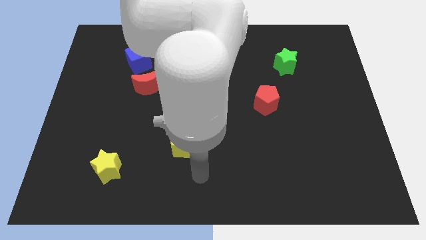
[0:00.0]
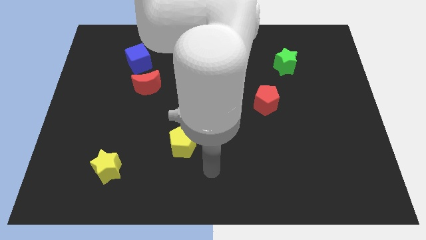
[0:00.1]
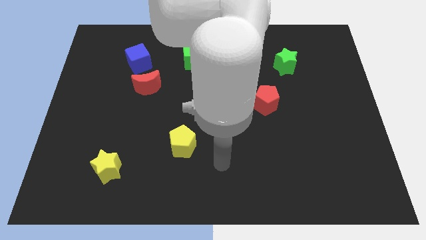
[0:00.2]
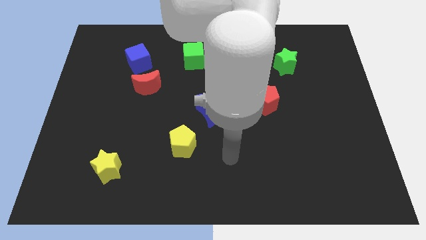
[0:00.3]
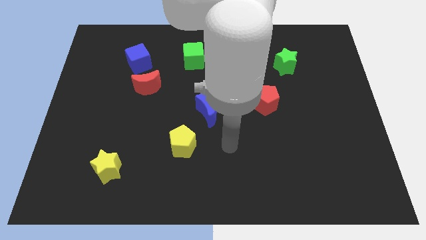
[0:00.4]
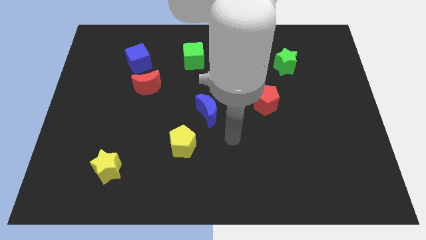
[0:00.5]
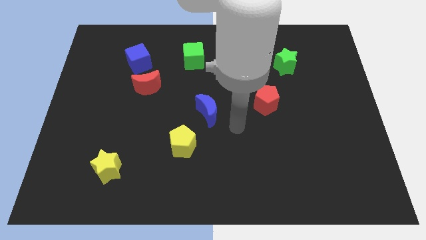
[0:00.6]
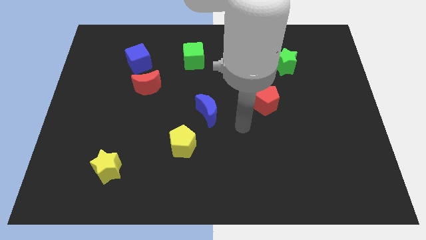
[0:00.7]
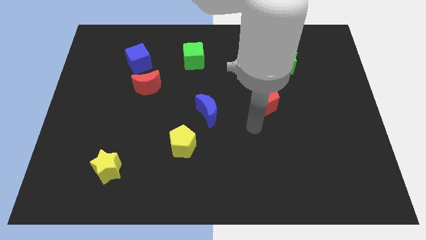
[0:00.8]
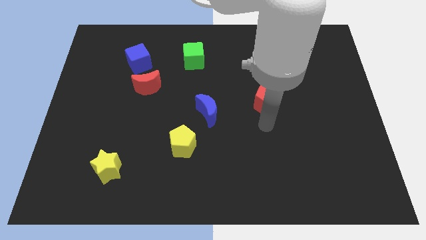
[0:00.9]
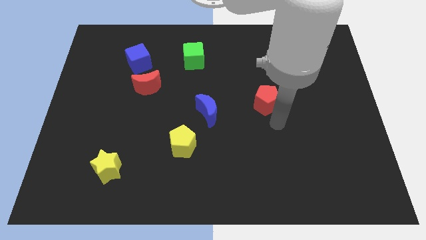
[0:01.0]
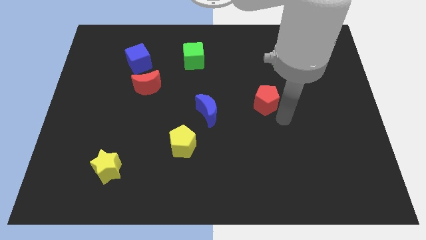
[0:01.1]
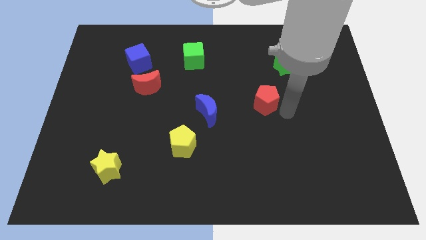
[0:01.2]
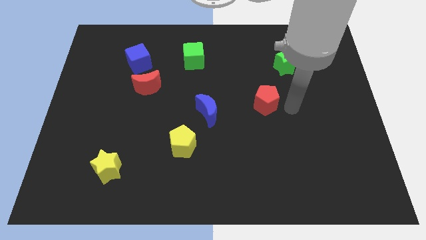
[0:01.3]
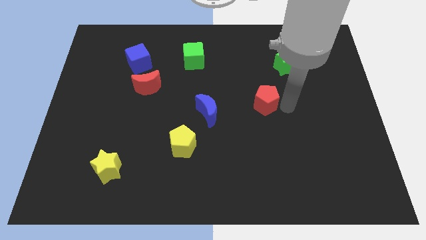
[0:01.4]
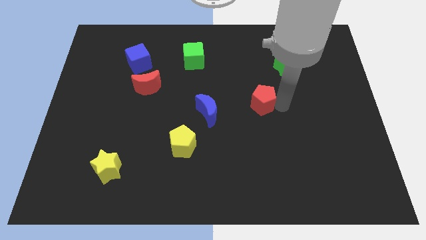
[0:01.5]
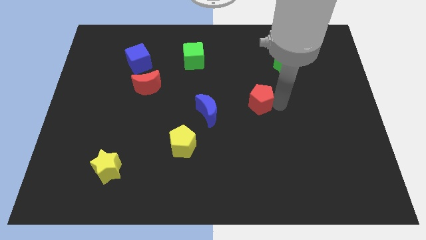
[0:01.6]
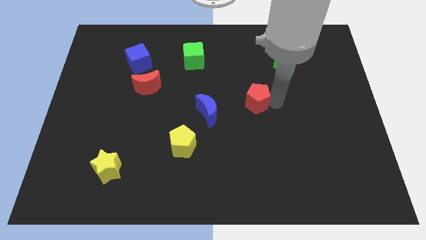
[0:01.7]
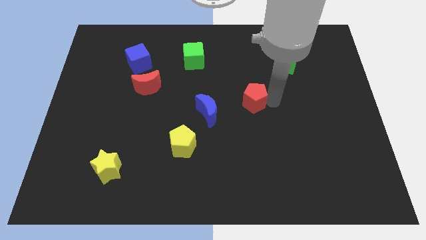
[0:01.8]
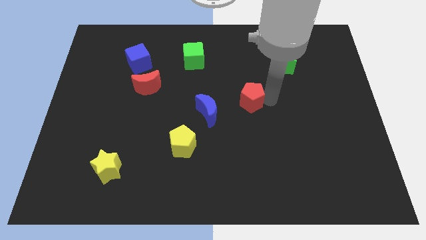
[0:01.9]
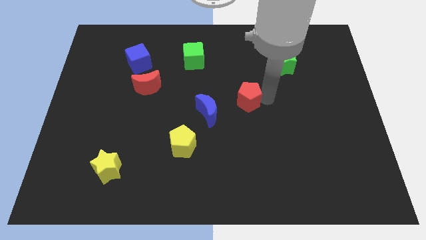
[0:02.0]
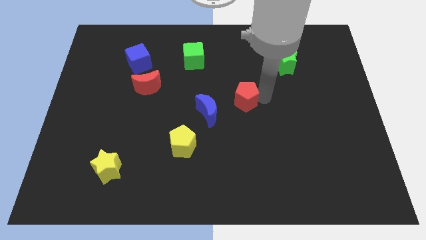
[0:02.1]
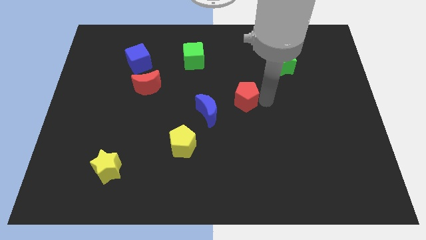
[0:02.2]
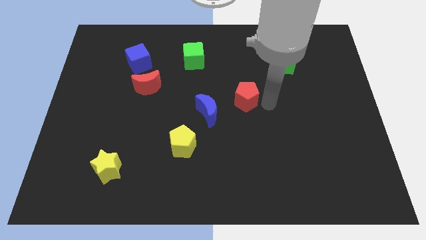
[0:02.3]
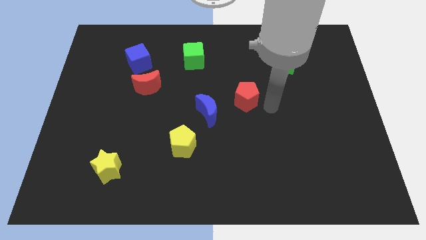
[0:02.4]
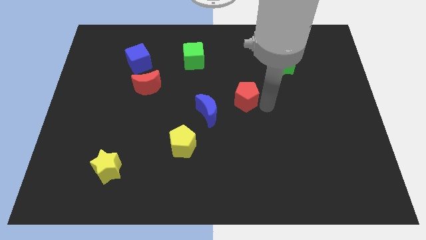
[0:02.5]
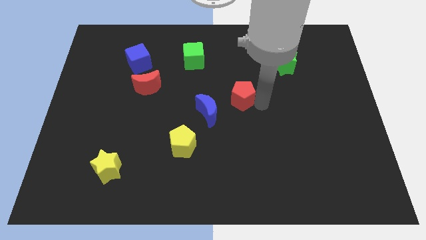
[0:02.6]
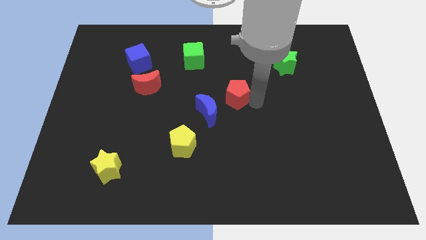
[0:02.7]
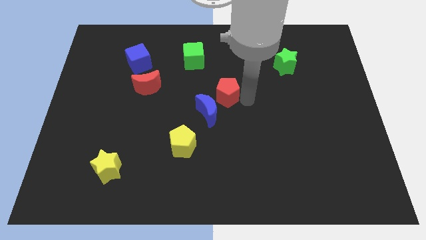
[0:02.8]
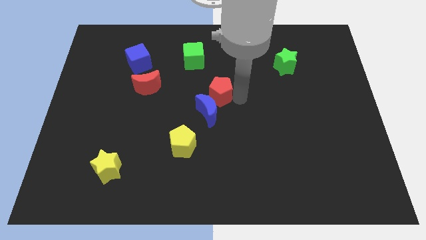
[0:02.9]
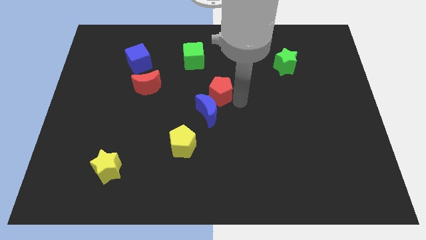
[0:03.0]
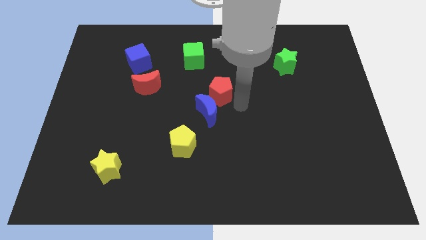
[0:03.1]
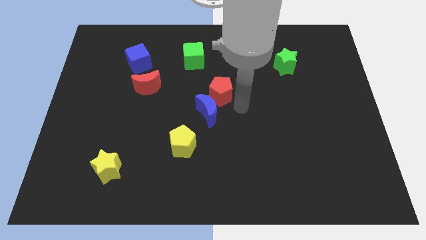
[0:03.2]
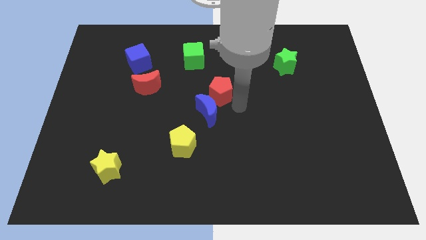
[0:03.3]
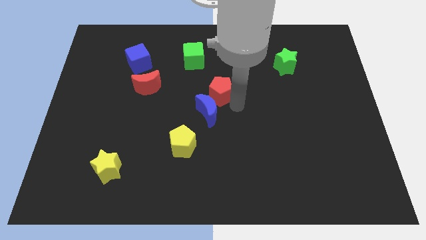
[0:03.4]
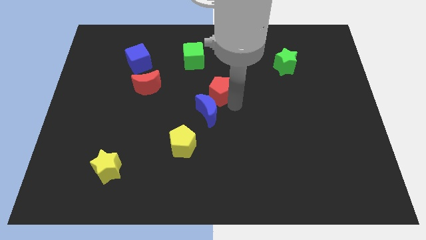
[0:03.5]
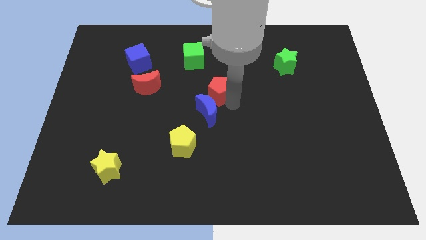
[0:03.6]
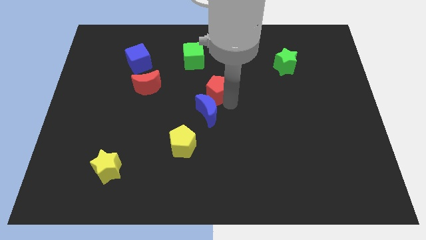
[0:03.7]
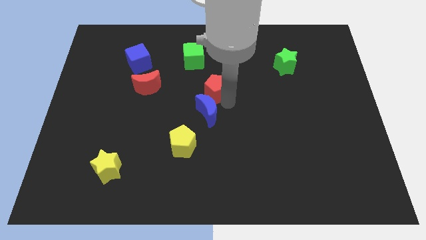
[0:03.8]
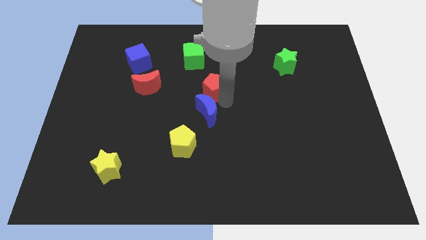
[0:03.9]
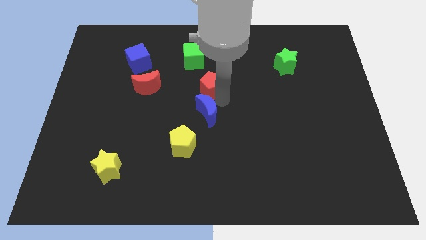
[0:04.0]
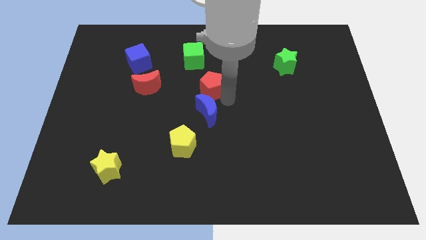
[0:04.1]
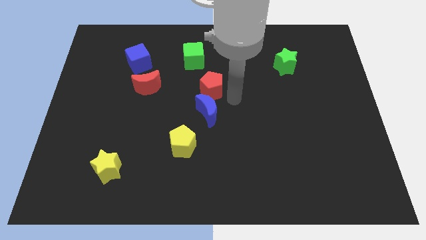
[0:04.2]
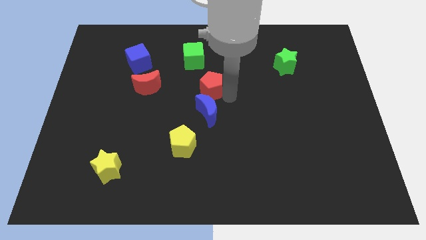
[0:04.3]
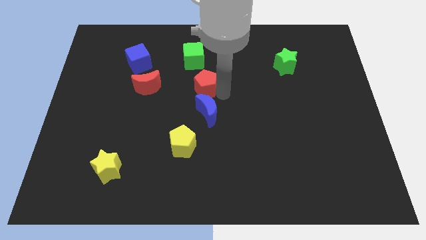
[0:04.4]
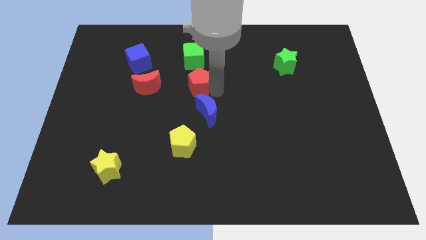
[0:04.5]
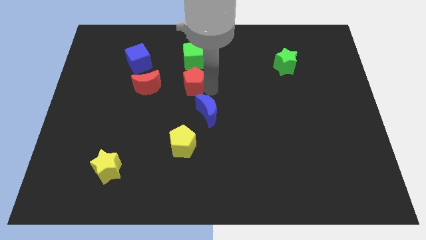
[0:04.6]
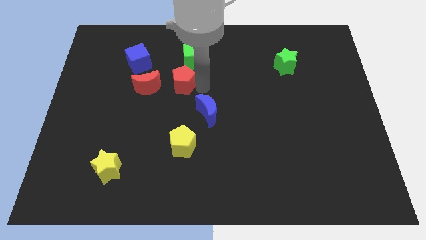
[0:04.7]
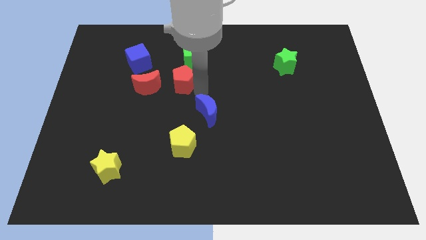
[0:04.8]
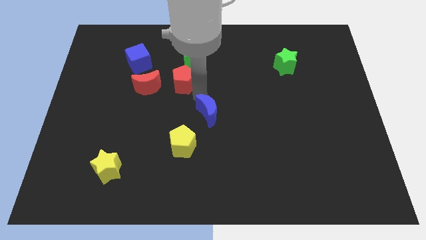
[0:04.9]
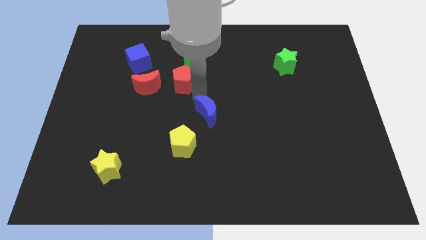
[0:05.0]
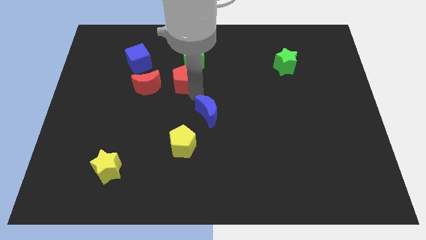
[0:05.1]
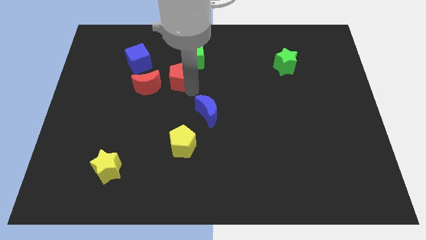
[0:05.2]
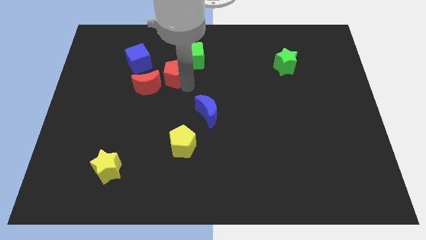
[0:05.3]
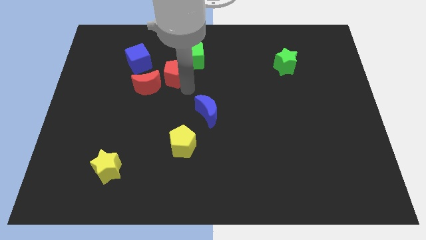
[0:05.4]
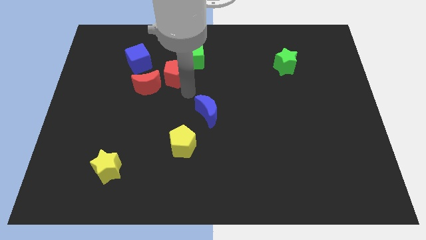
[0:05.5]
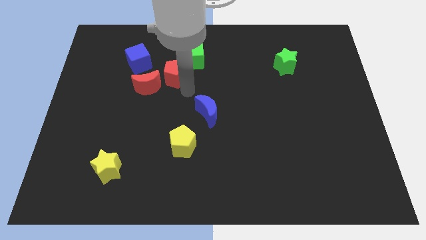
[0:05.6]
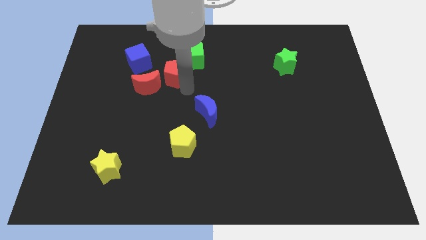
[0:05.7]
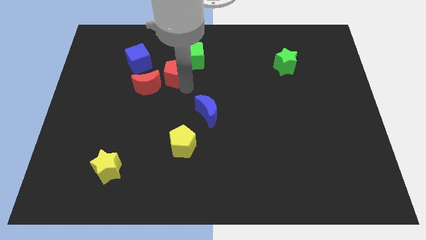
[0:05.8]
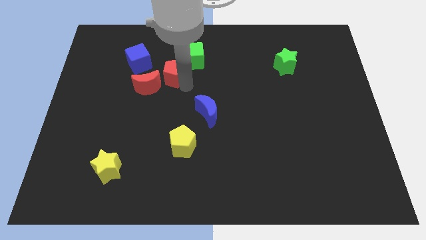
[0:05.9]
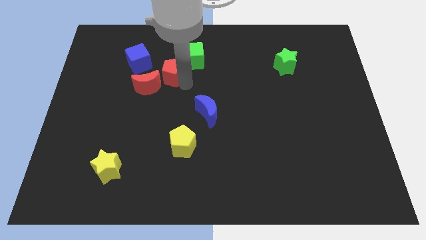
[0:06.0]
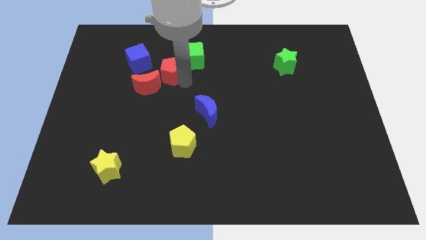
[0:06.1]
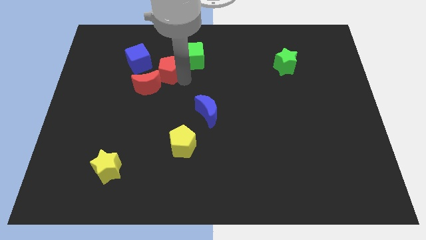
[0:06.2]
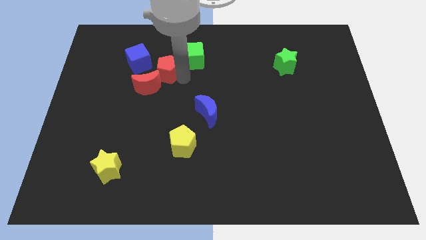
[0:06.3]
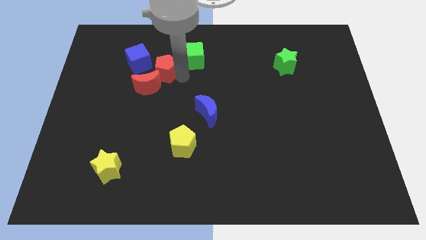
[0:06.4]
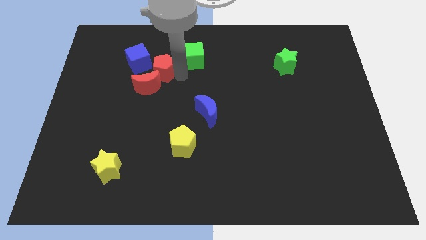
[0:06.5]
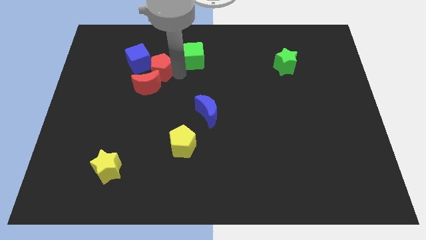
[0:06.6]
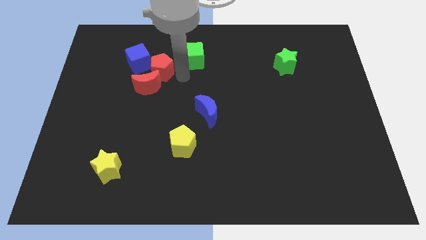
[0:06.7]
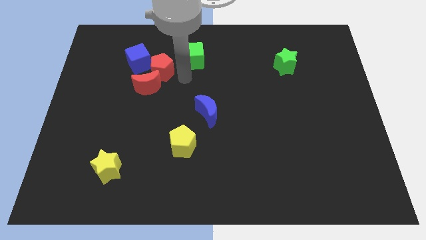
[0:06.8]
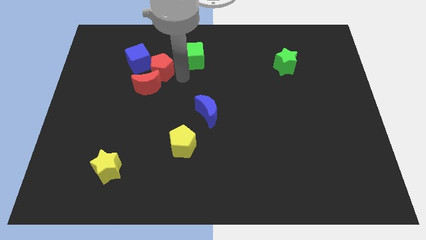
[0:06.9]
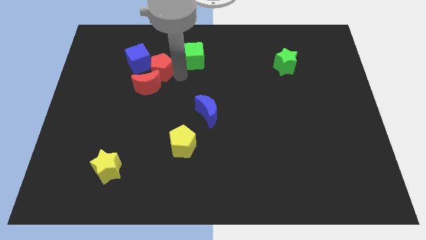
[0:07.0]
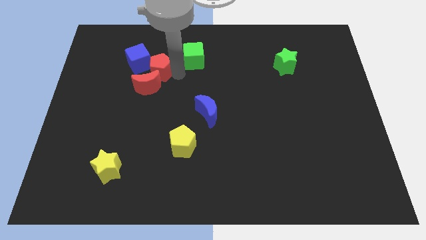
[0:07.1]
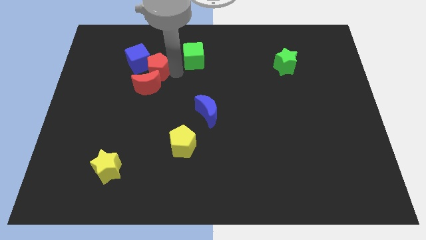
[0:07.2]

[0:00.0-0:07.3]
push the red pentagon towards the blue cube
